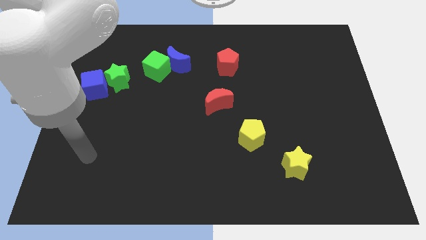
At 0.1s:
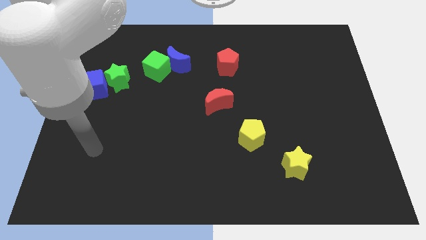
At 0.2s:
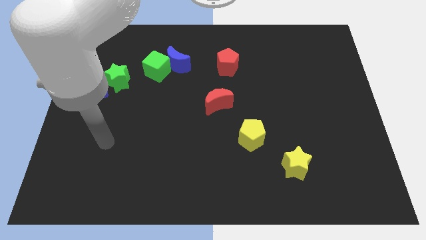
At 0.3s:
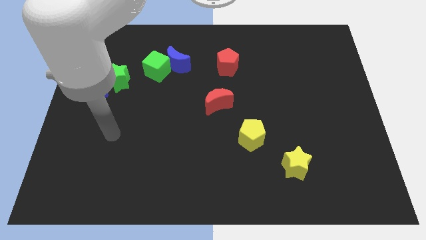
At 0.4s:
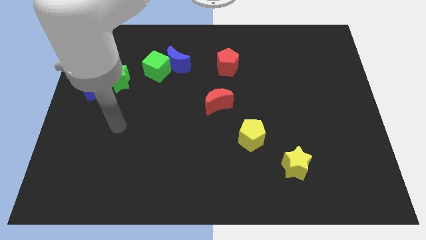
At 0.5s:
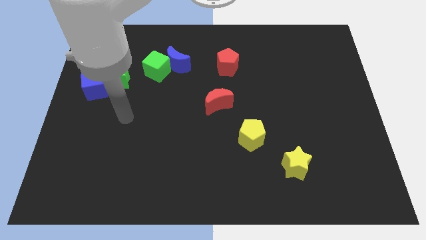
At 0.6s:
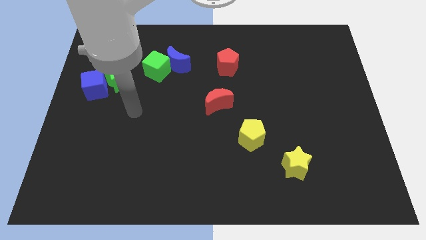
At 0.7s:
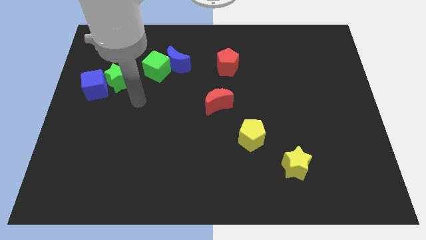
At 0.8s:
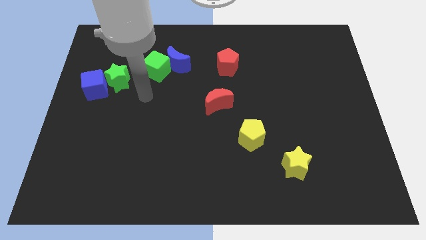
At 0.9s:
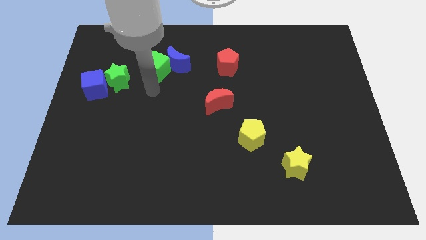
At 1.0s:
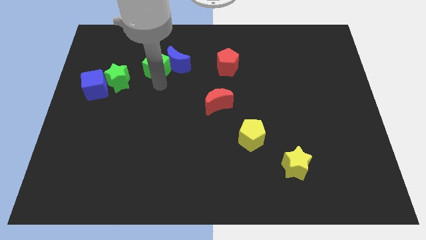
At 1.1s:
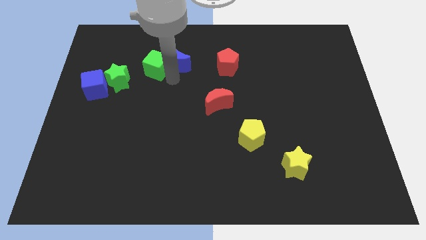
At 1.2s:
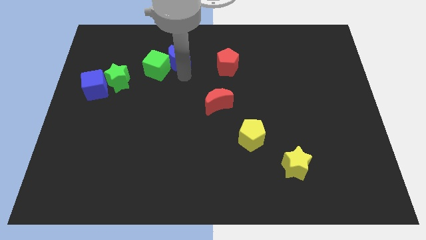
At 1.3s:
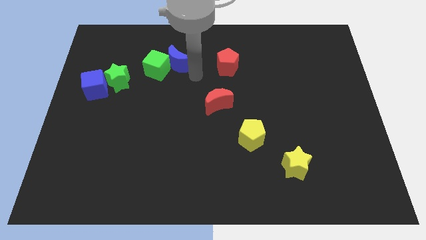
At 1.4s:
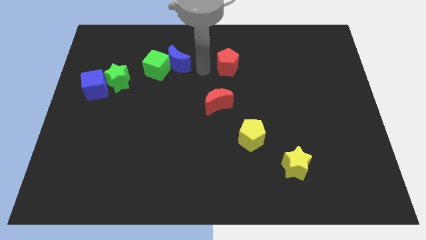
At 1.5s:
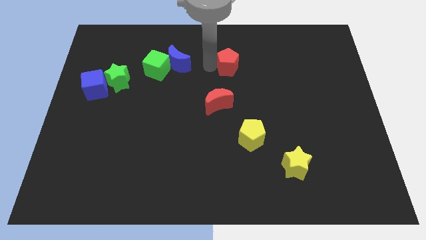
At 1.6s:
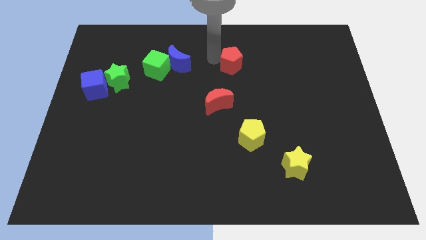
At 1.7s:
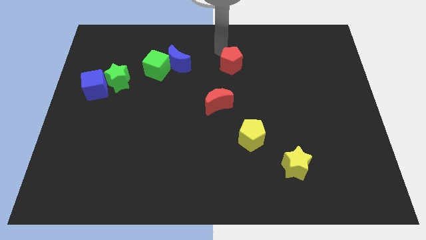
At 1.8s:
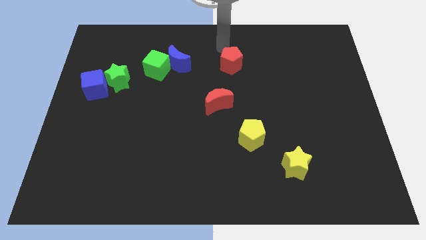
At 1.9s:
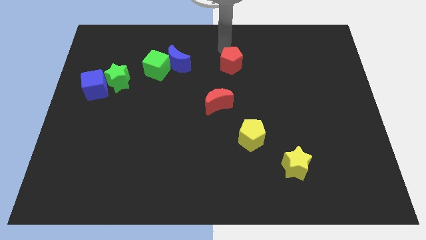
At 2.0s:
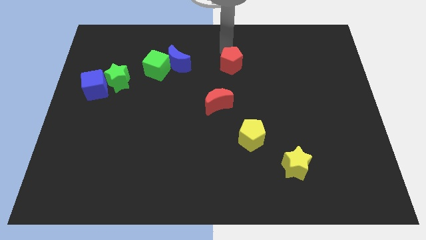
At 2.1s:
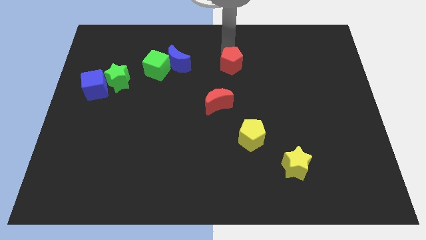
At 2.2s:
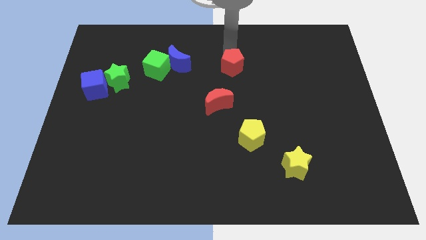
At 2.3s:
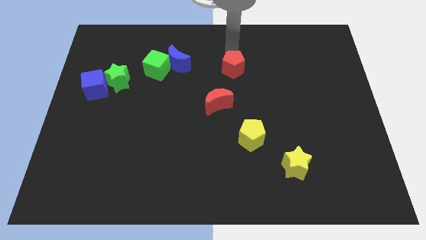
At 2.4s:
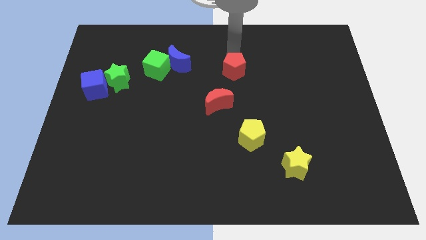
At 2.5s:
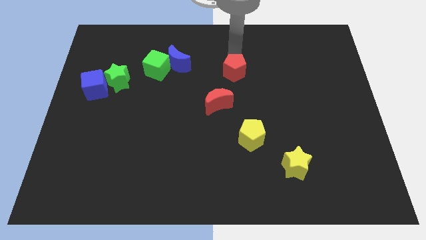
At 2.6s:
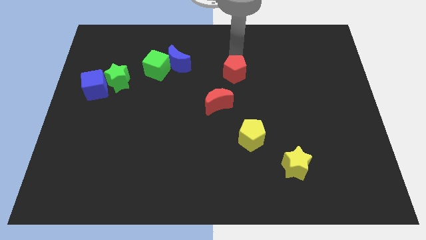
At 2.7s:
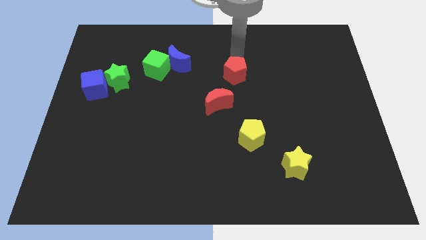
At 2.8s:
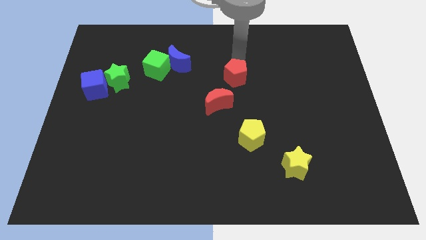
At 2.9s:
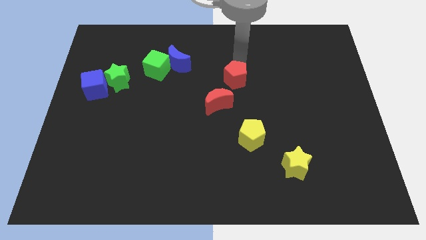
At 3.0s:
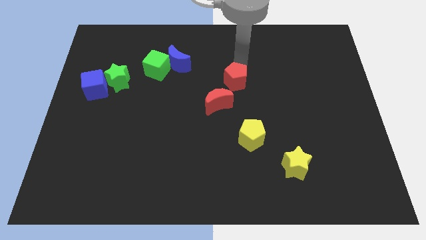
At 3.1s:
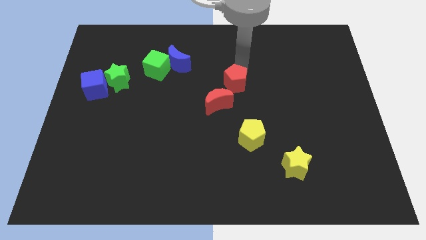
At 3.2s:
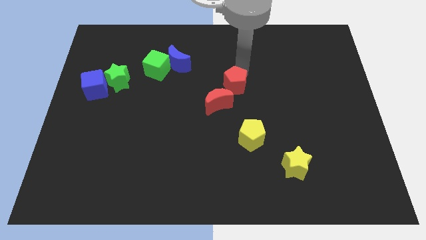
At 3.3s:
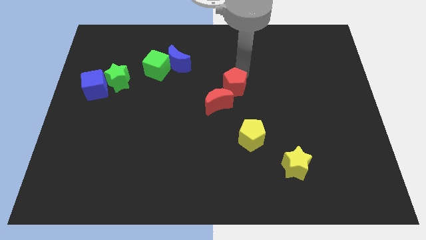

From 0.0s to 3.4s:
slightly move the red pentagon downwards

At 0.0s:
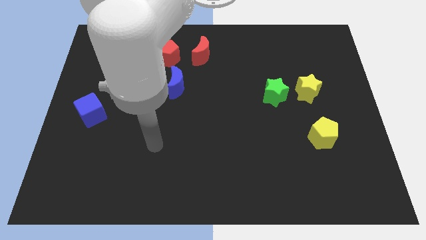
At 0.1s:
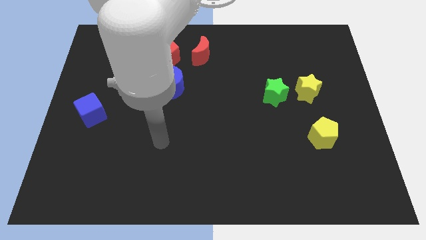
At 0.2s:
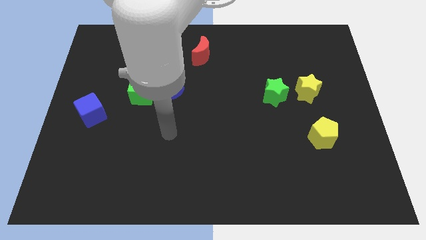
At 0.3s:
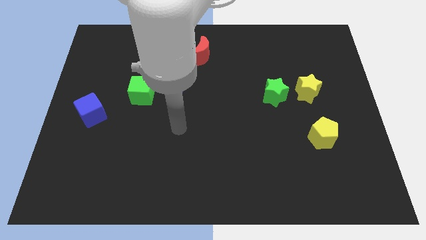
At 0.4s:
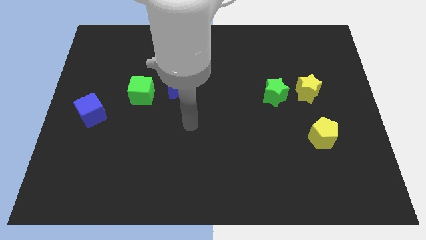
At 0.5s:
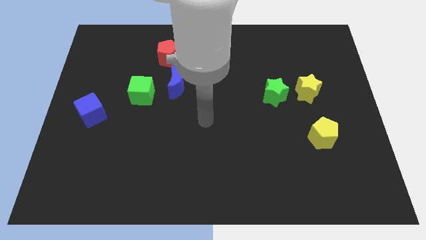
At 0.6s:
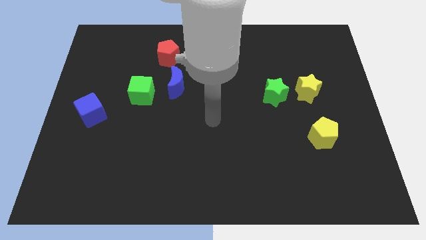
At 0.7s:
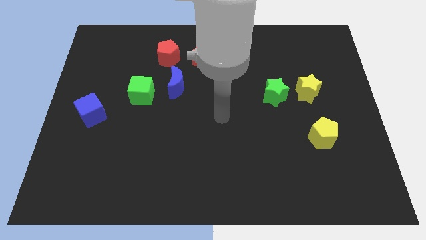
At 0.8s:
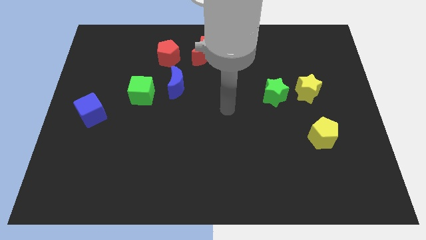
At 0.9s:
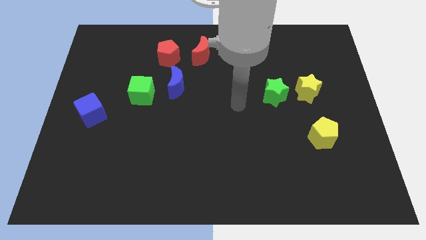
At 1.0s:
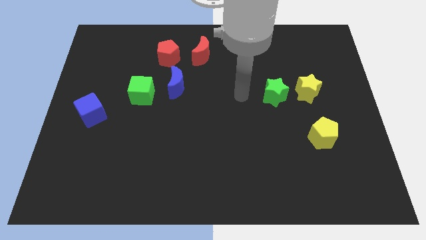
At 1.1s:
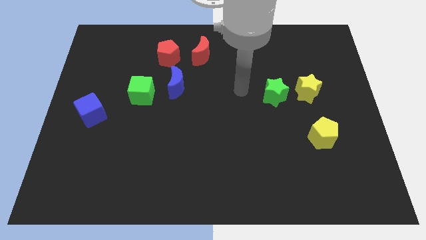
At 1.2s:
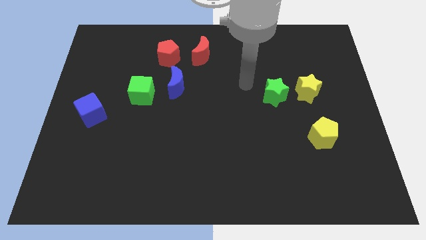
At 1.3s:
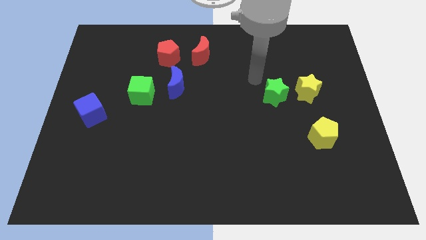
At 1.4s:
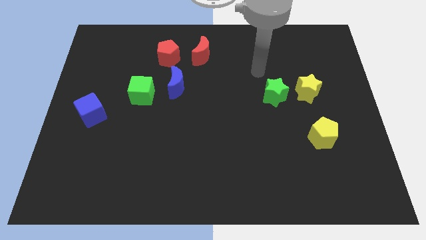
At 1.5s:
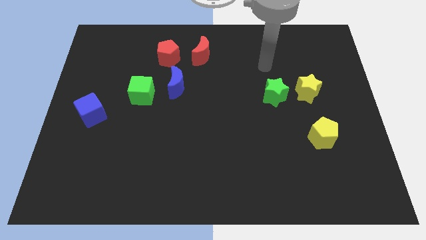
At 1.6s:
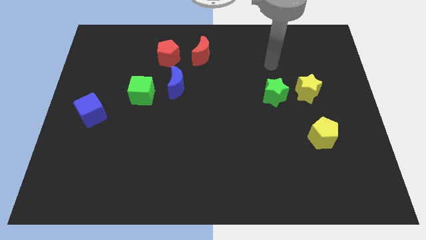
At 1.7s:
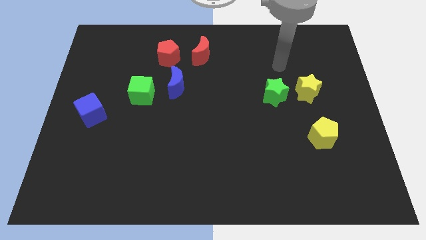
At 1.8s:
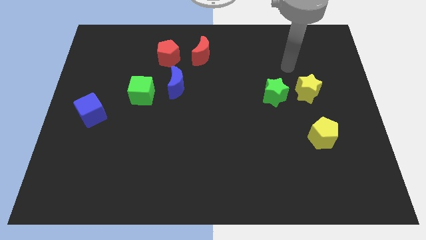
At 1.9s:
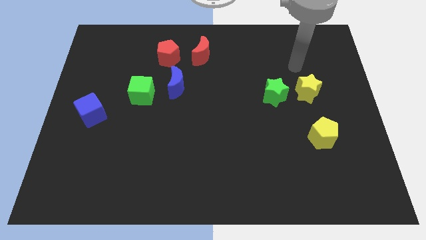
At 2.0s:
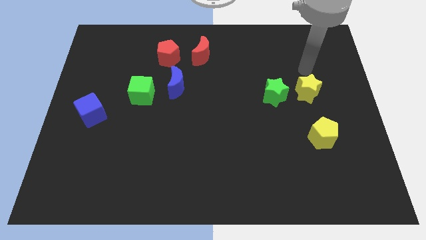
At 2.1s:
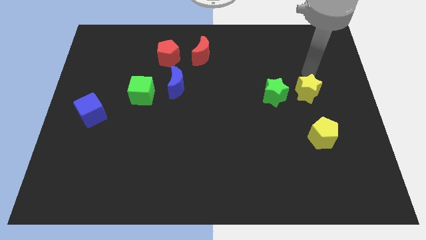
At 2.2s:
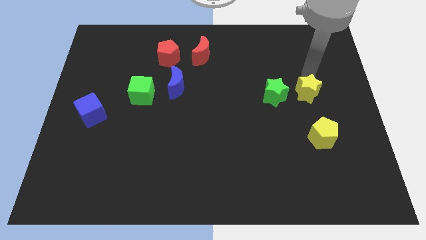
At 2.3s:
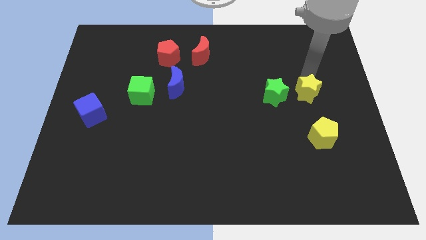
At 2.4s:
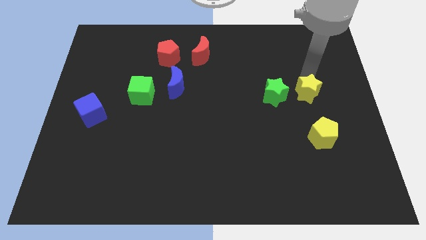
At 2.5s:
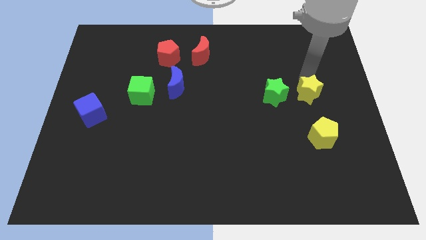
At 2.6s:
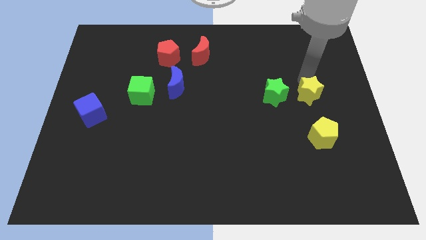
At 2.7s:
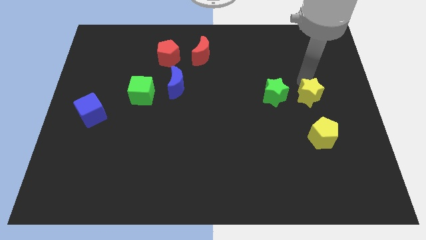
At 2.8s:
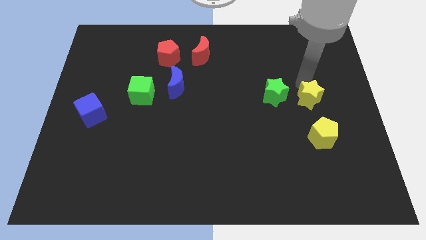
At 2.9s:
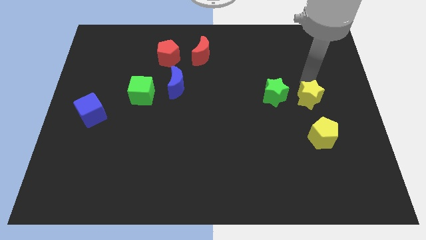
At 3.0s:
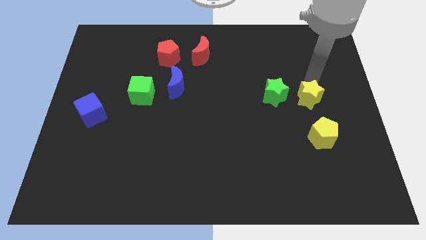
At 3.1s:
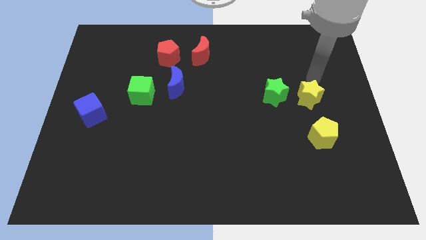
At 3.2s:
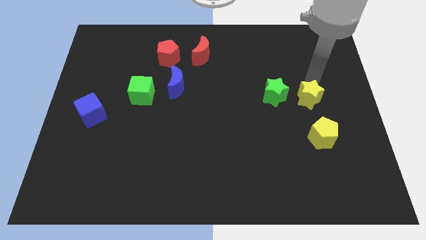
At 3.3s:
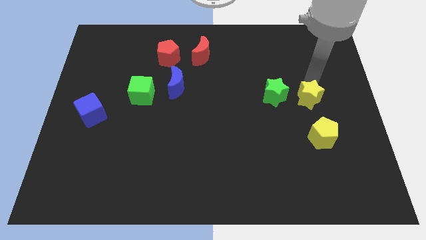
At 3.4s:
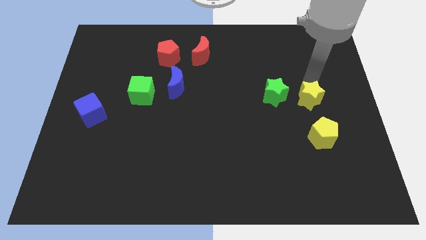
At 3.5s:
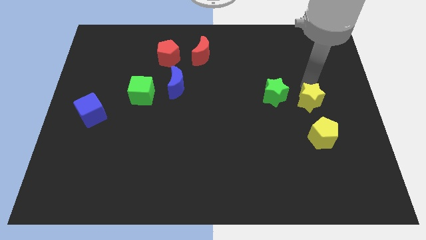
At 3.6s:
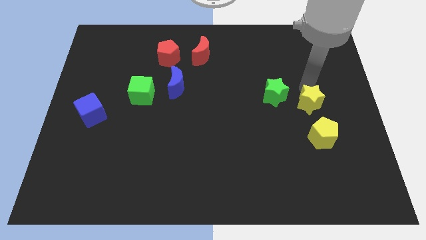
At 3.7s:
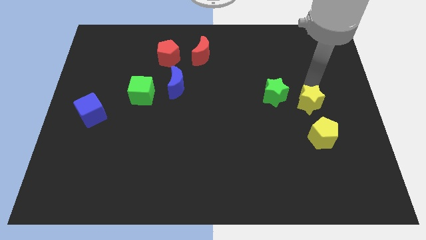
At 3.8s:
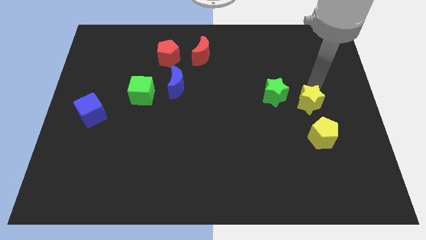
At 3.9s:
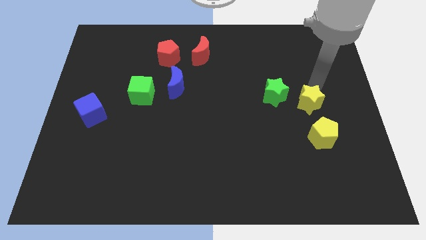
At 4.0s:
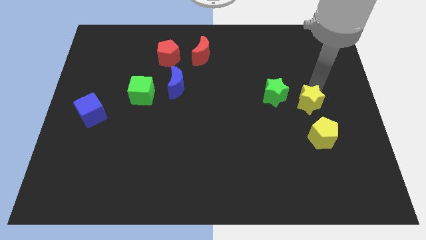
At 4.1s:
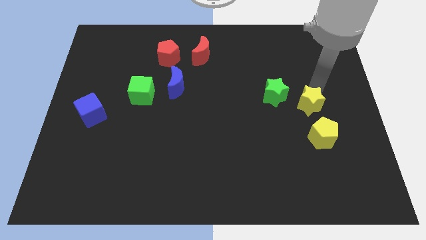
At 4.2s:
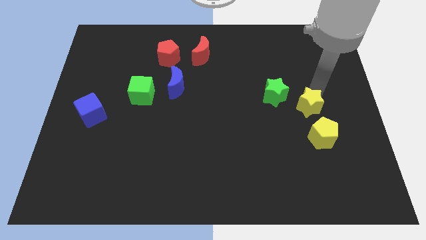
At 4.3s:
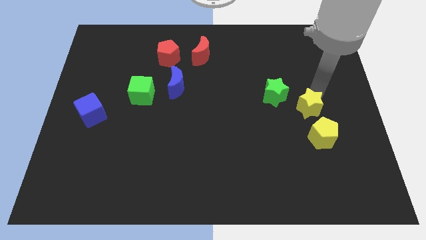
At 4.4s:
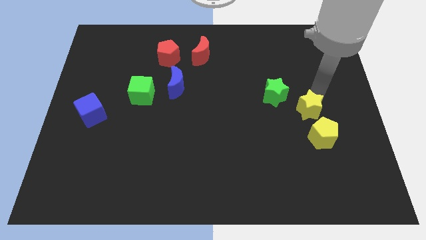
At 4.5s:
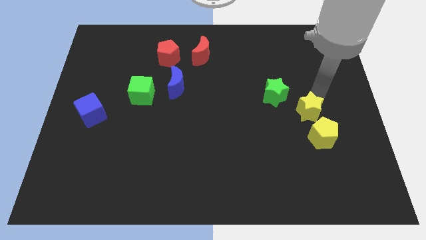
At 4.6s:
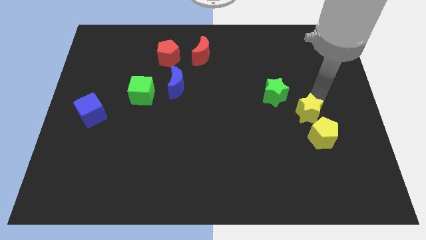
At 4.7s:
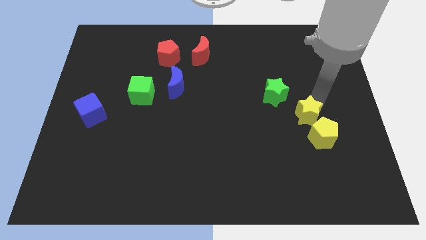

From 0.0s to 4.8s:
move the yellow star downwards a little
